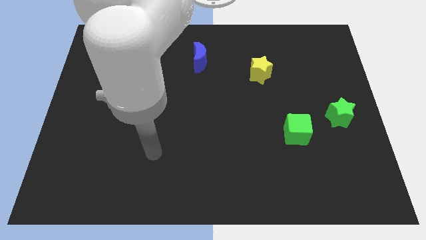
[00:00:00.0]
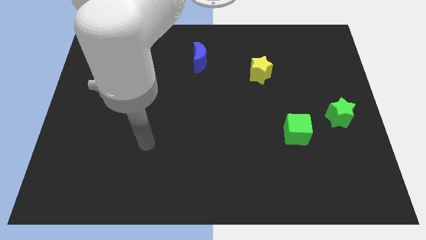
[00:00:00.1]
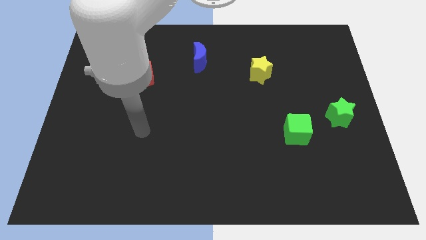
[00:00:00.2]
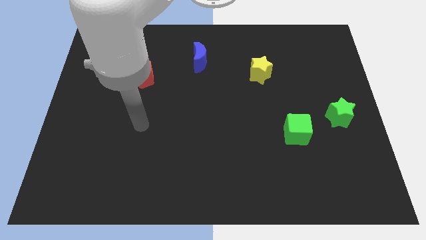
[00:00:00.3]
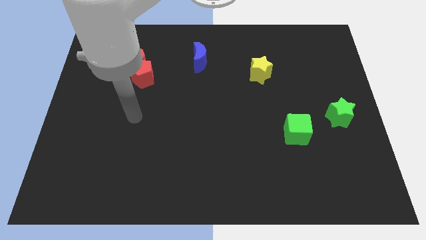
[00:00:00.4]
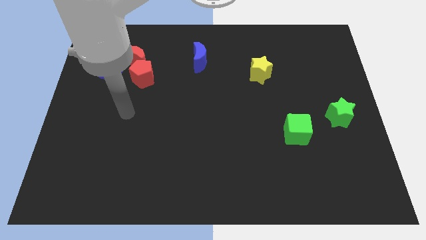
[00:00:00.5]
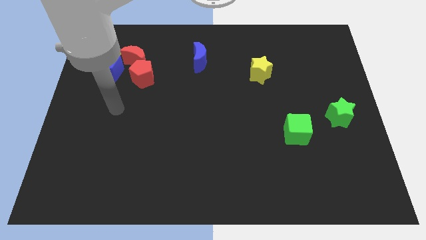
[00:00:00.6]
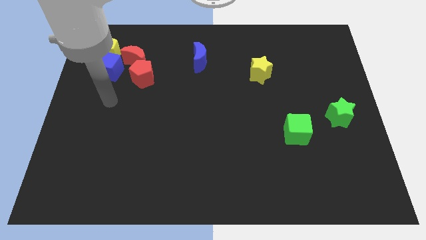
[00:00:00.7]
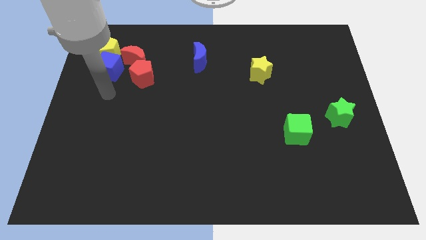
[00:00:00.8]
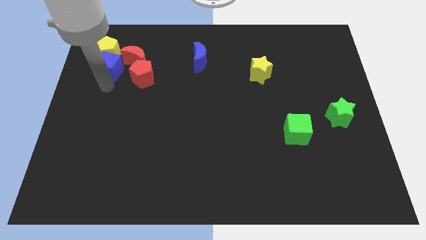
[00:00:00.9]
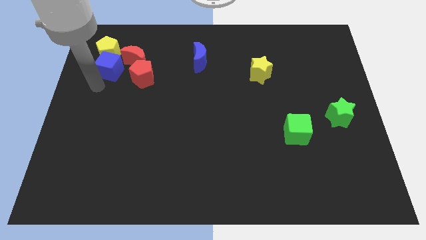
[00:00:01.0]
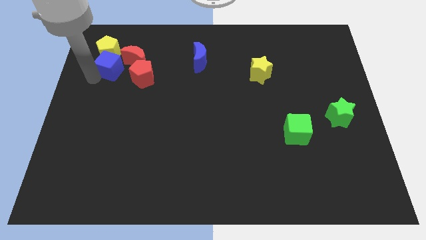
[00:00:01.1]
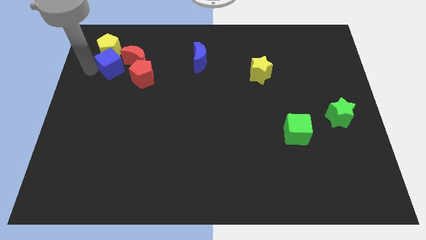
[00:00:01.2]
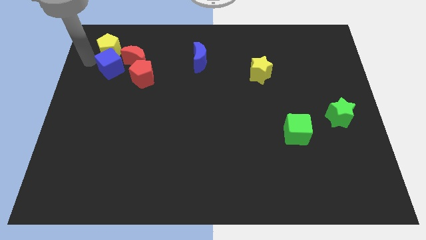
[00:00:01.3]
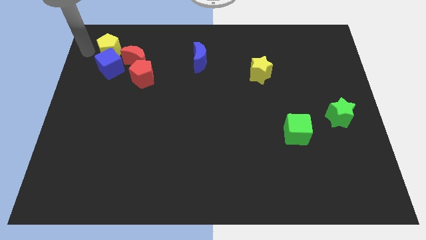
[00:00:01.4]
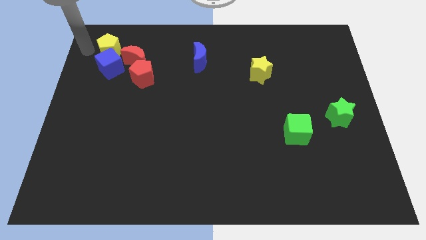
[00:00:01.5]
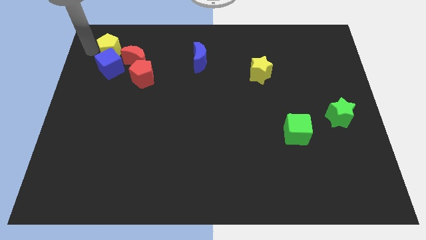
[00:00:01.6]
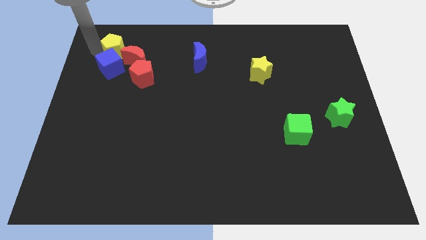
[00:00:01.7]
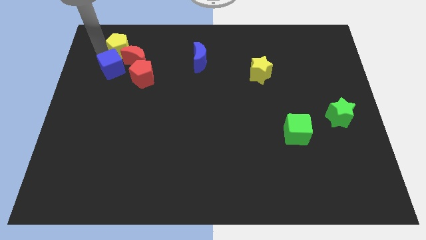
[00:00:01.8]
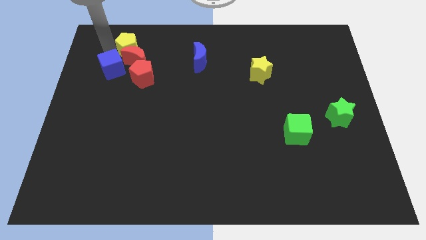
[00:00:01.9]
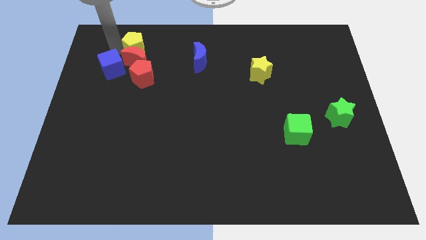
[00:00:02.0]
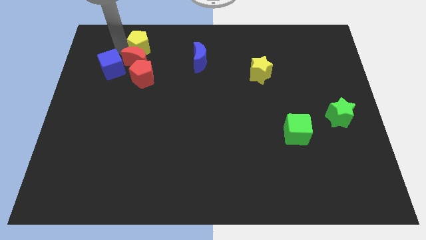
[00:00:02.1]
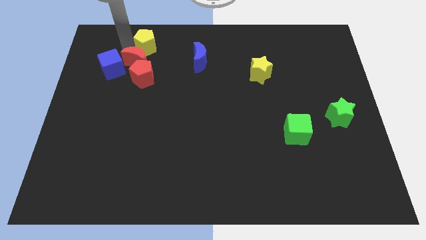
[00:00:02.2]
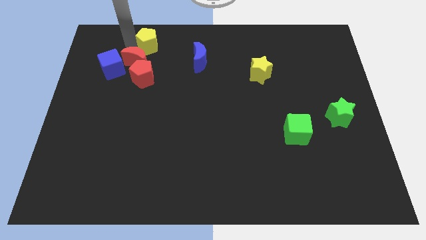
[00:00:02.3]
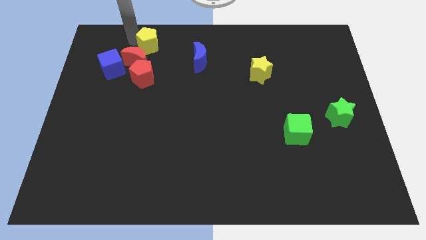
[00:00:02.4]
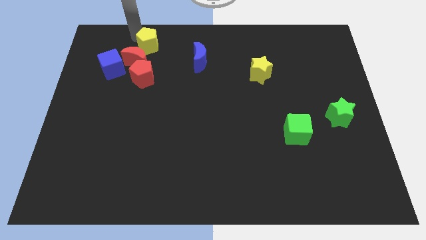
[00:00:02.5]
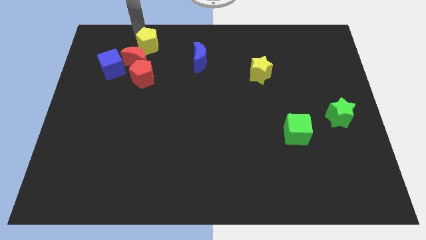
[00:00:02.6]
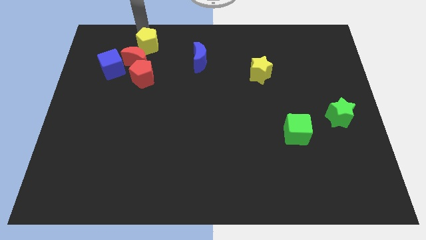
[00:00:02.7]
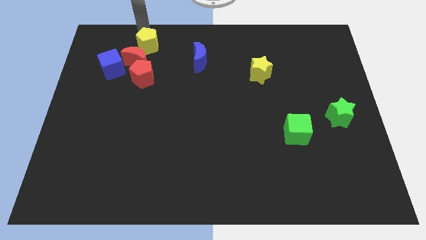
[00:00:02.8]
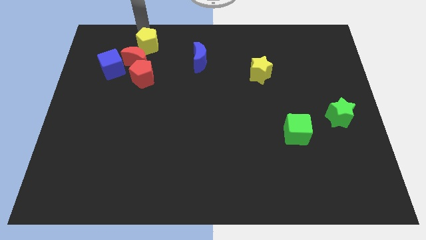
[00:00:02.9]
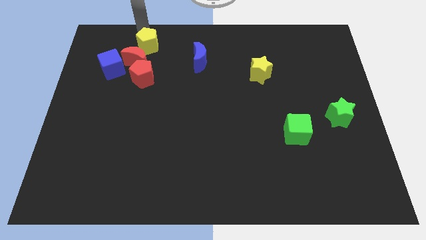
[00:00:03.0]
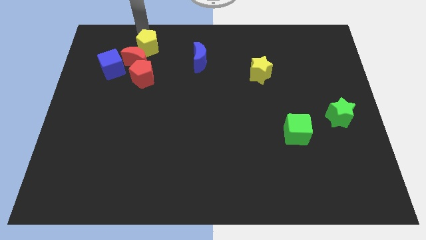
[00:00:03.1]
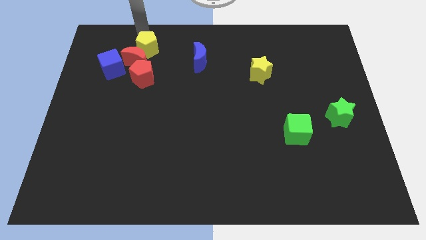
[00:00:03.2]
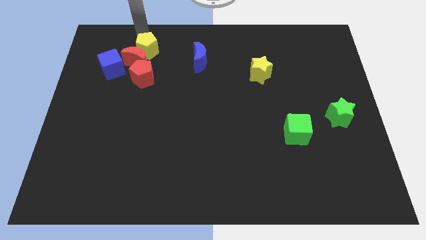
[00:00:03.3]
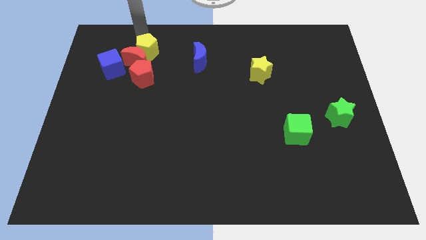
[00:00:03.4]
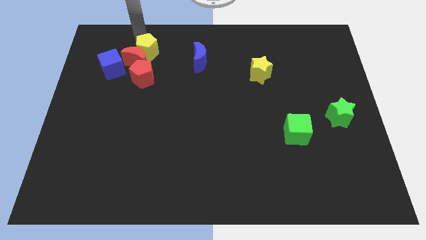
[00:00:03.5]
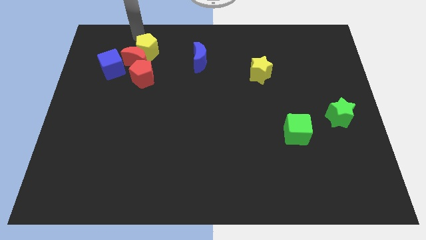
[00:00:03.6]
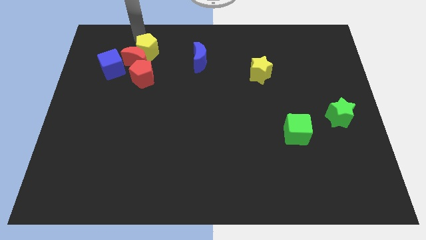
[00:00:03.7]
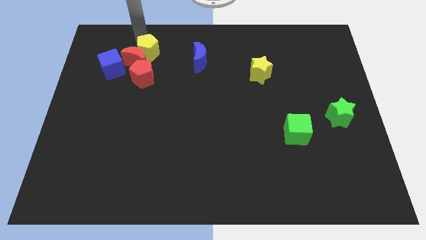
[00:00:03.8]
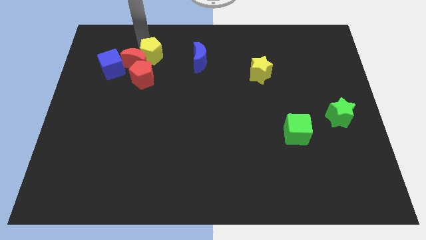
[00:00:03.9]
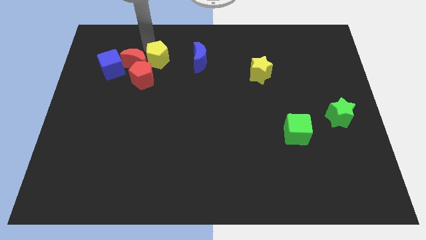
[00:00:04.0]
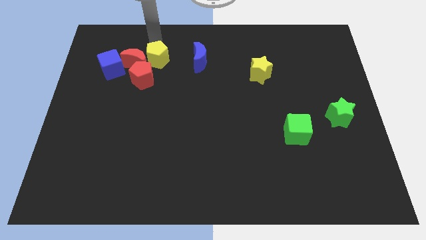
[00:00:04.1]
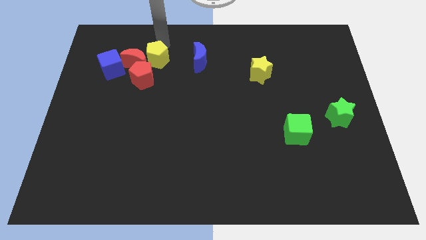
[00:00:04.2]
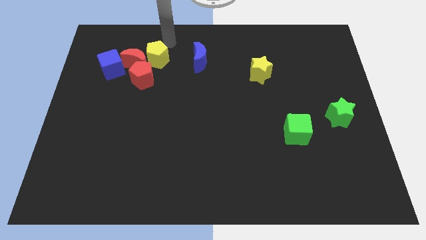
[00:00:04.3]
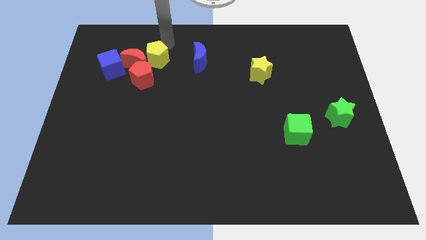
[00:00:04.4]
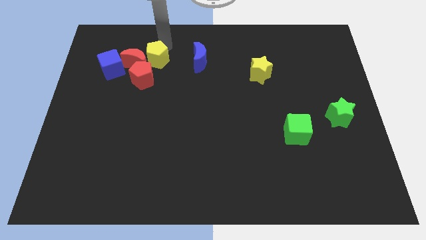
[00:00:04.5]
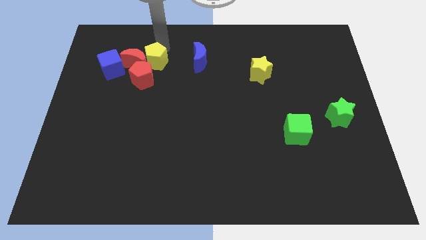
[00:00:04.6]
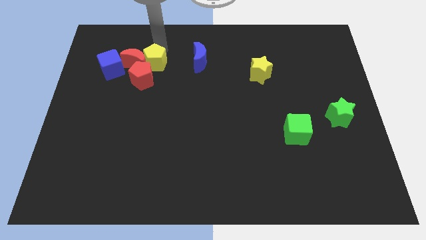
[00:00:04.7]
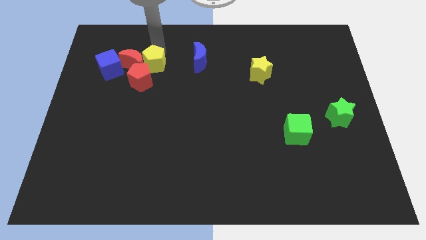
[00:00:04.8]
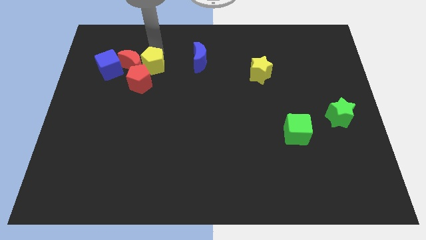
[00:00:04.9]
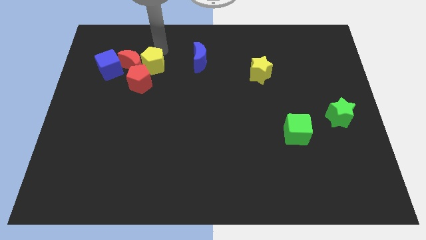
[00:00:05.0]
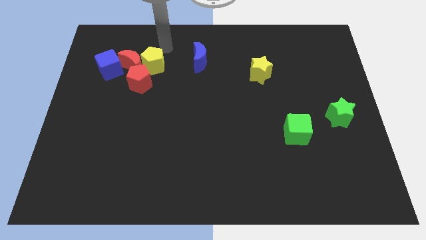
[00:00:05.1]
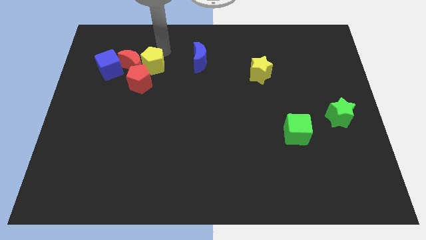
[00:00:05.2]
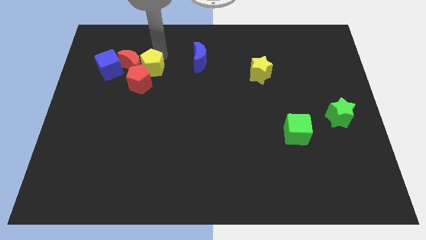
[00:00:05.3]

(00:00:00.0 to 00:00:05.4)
slide the yellow pentagon close to the red pentagon
